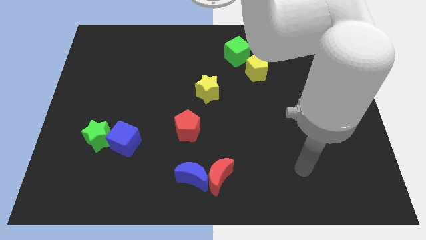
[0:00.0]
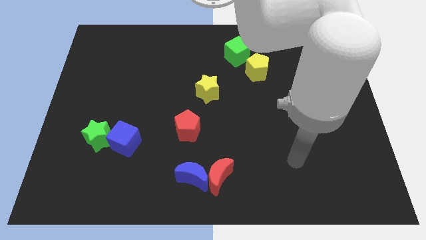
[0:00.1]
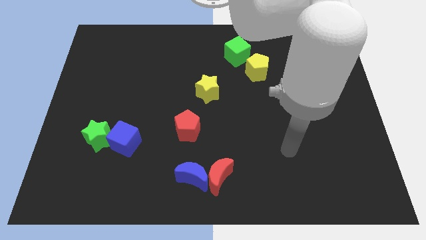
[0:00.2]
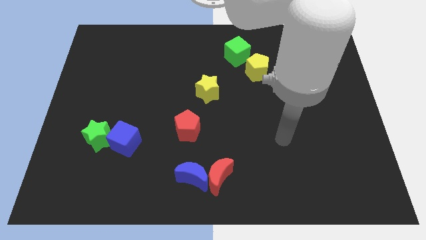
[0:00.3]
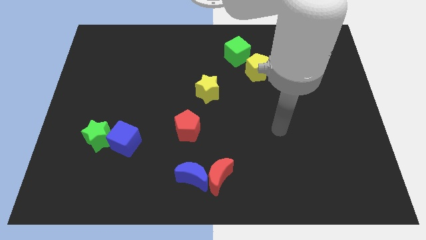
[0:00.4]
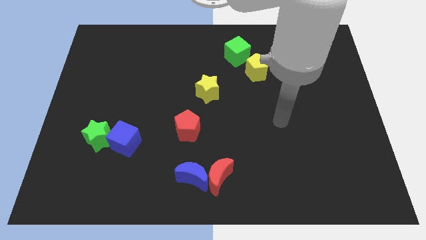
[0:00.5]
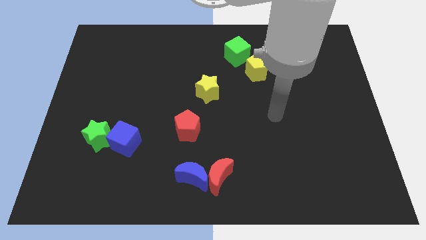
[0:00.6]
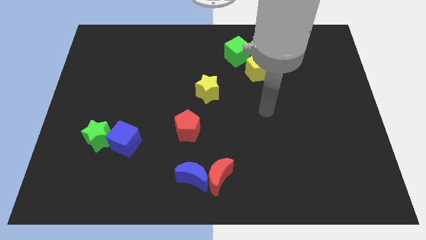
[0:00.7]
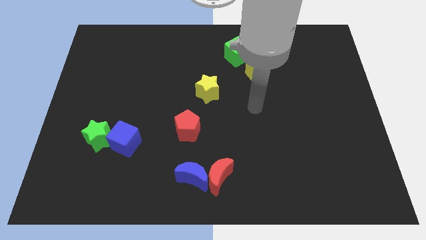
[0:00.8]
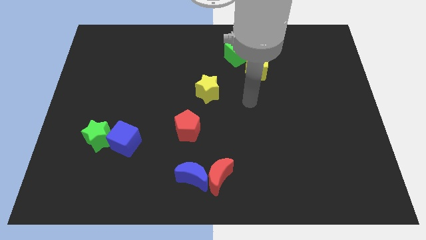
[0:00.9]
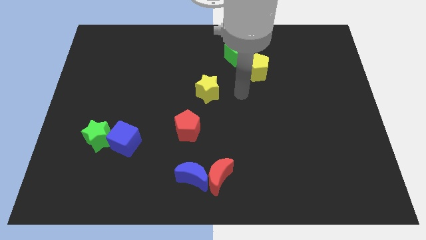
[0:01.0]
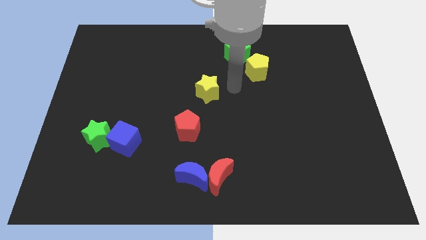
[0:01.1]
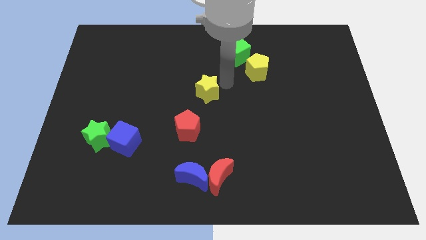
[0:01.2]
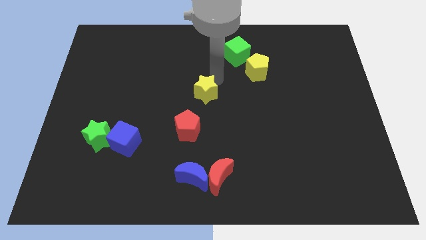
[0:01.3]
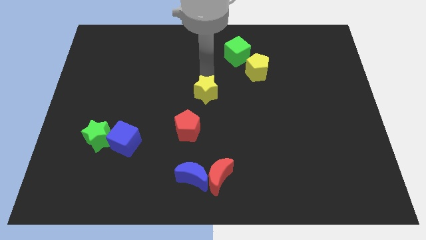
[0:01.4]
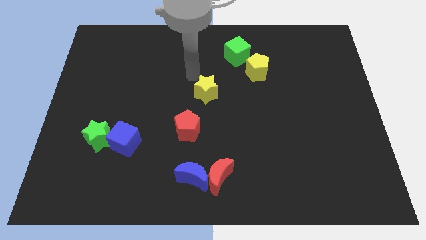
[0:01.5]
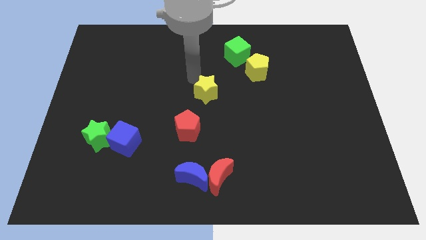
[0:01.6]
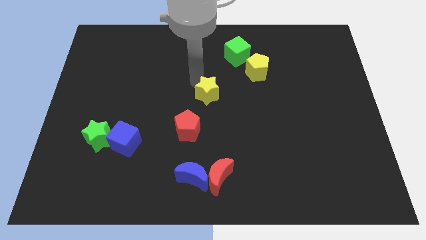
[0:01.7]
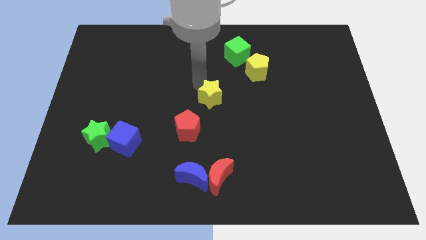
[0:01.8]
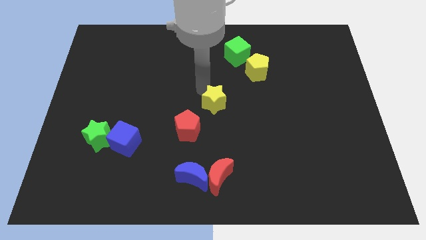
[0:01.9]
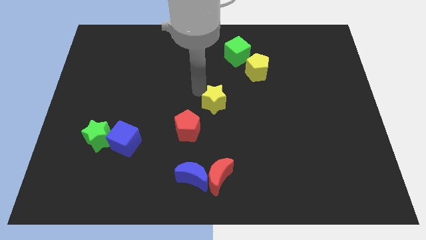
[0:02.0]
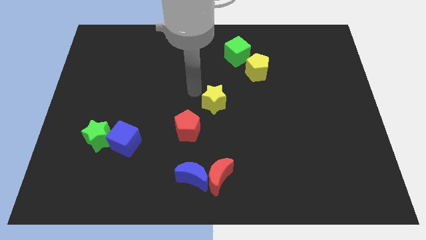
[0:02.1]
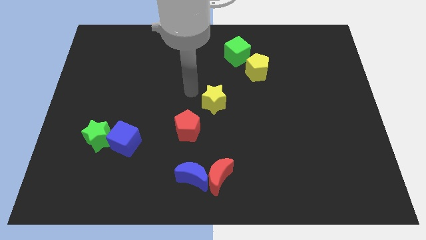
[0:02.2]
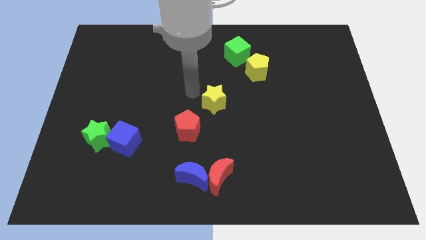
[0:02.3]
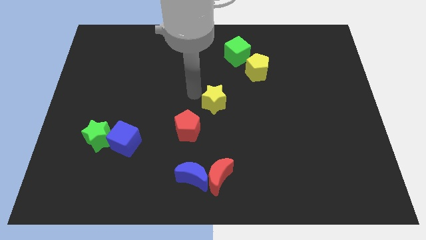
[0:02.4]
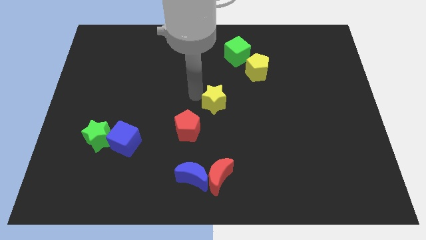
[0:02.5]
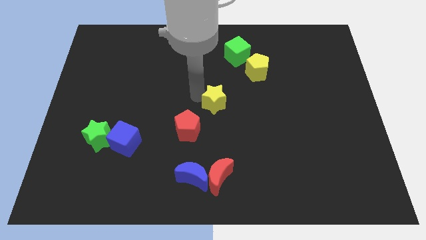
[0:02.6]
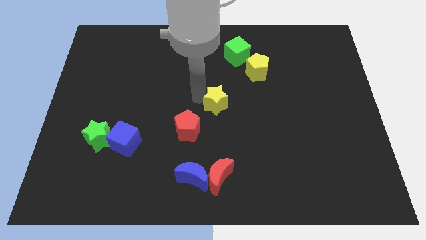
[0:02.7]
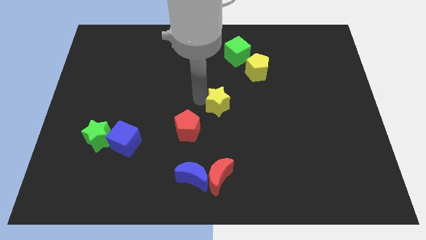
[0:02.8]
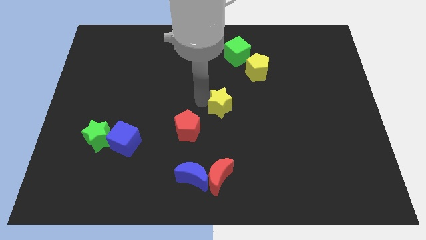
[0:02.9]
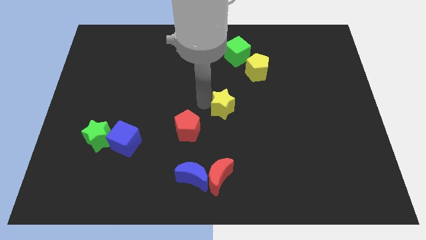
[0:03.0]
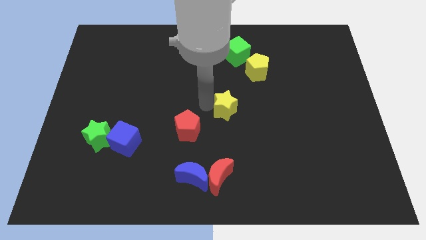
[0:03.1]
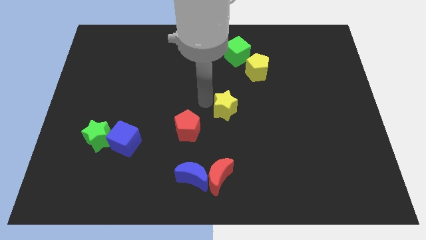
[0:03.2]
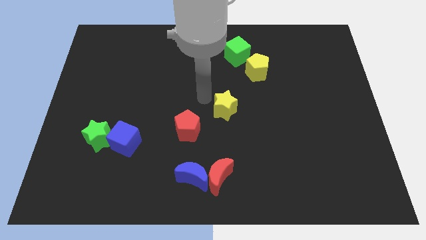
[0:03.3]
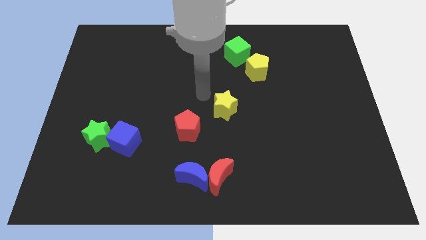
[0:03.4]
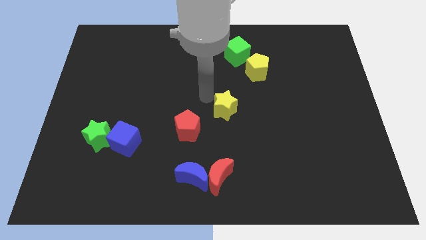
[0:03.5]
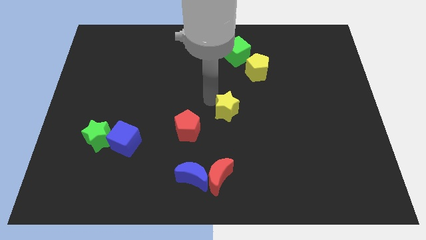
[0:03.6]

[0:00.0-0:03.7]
push the yellow star slightly down and to the right diagonally

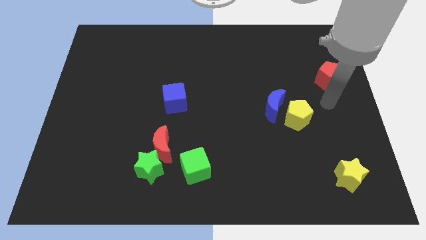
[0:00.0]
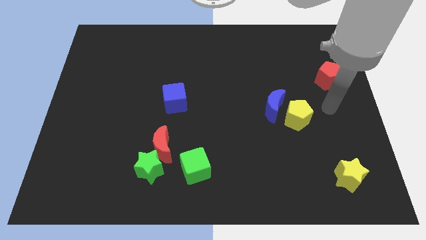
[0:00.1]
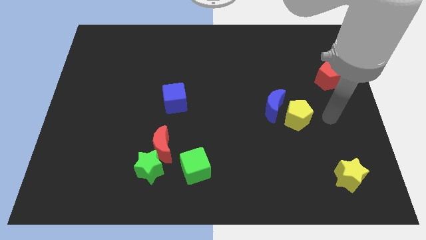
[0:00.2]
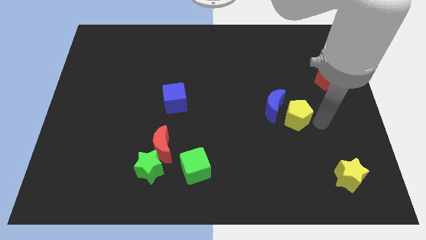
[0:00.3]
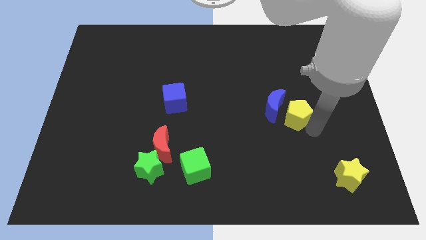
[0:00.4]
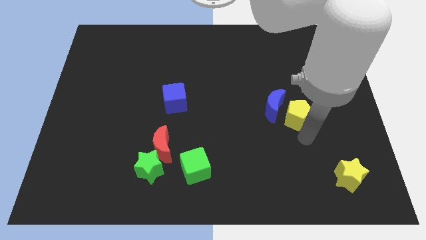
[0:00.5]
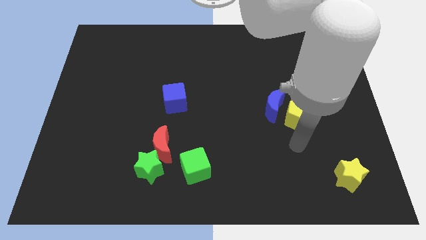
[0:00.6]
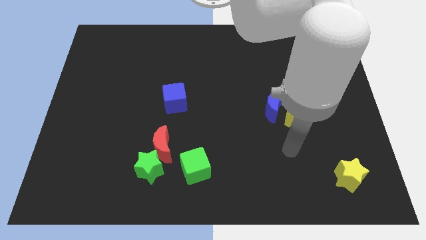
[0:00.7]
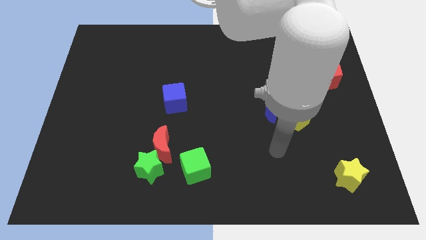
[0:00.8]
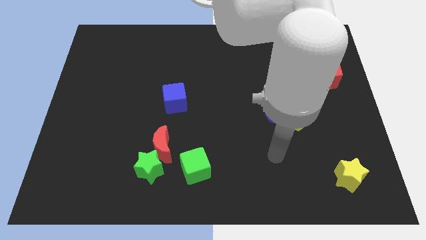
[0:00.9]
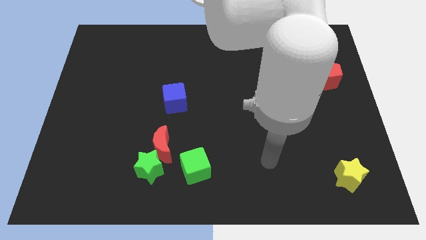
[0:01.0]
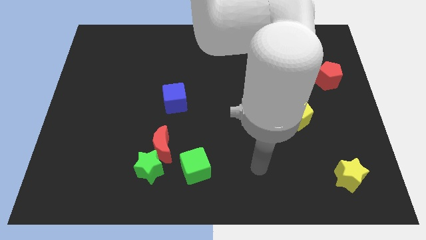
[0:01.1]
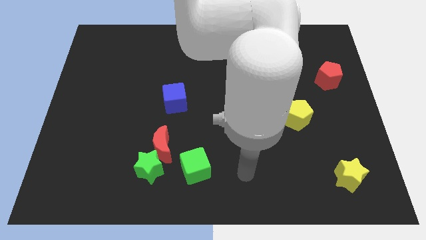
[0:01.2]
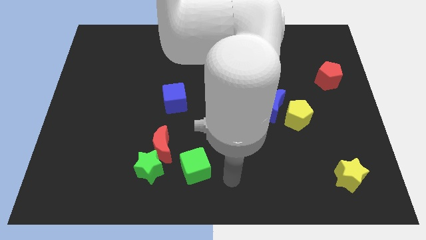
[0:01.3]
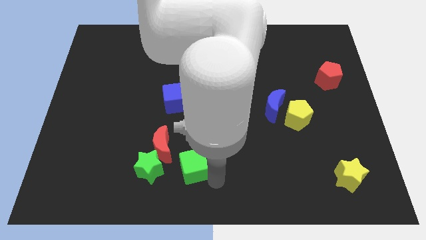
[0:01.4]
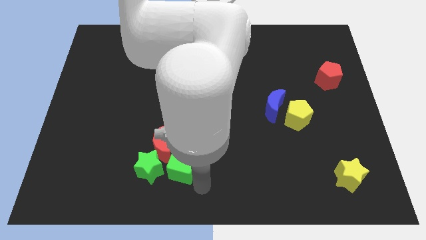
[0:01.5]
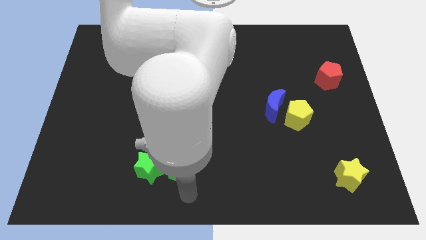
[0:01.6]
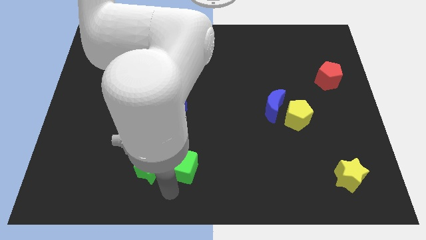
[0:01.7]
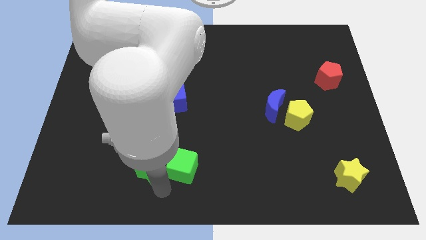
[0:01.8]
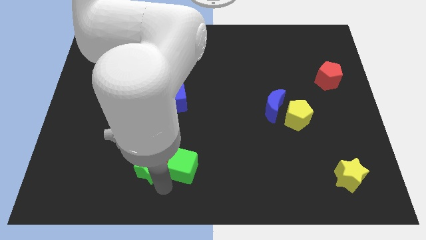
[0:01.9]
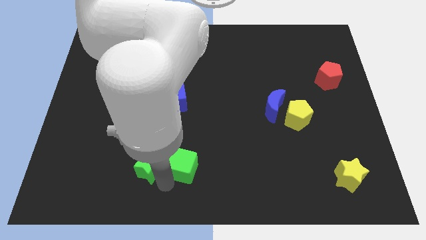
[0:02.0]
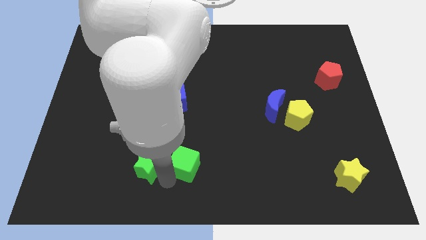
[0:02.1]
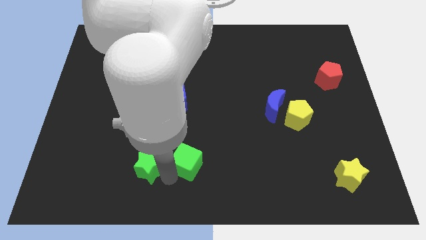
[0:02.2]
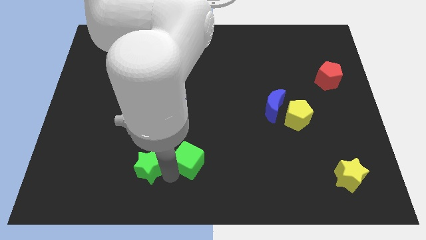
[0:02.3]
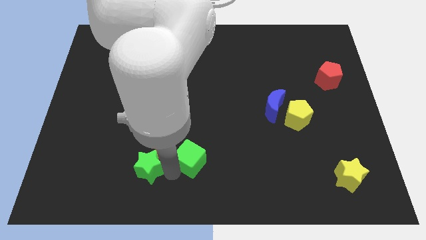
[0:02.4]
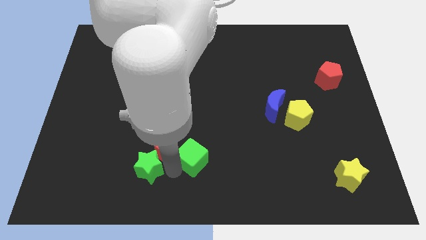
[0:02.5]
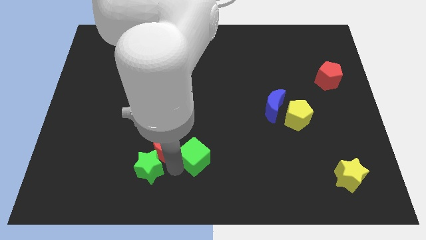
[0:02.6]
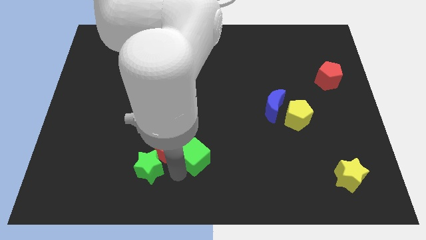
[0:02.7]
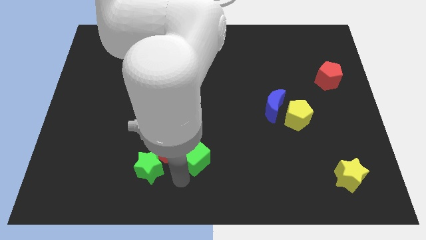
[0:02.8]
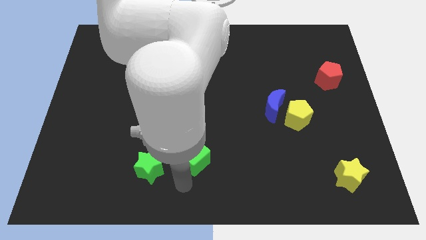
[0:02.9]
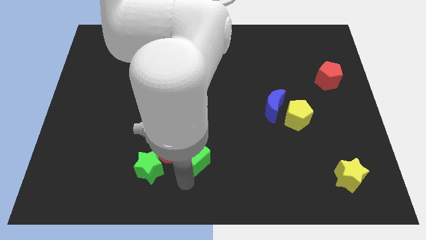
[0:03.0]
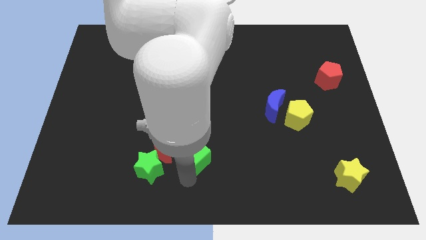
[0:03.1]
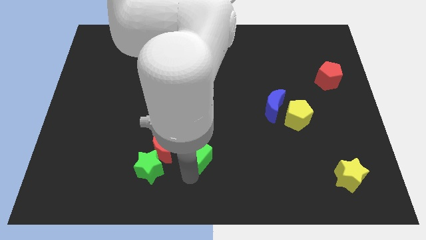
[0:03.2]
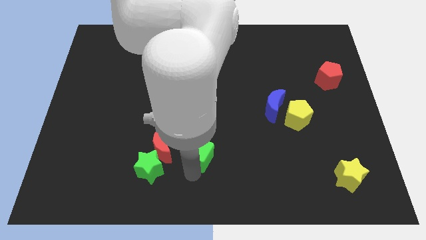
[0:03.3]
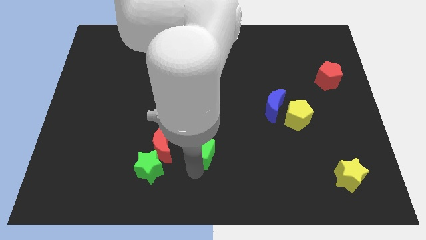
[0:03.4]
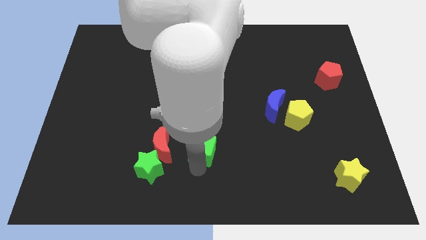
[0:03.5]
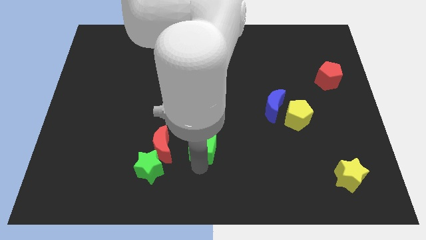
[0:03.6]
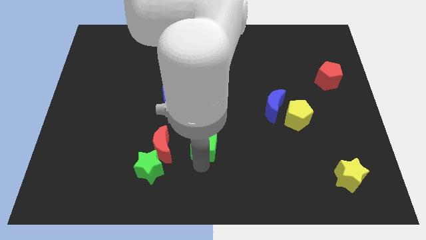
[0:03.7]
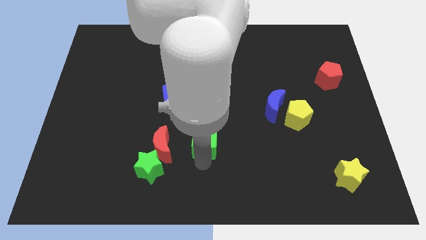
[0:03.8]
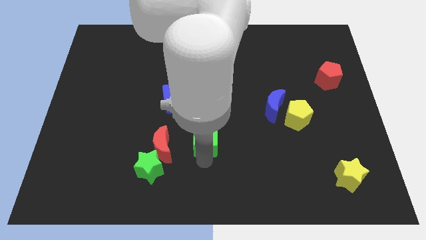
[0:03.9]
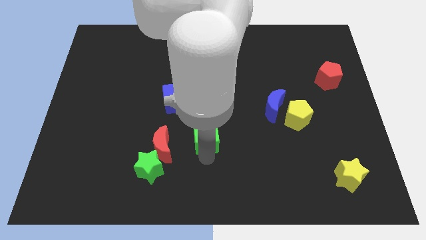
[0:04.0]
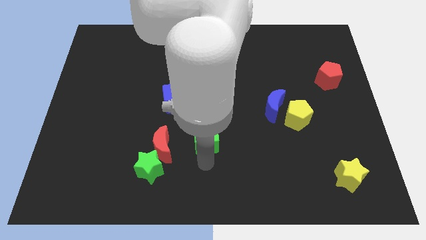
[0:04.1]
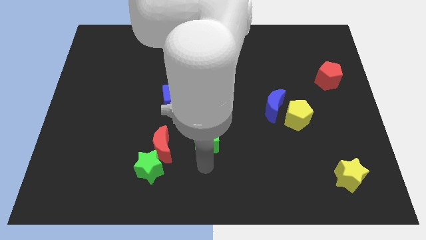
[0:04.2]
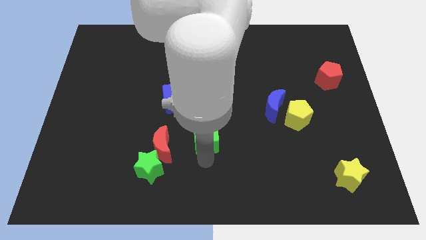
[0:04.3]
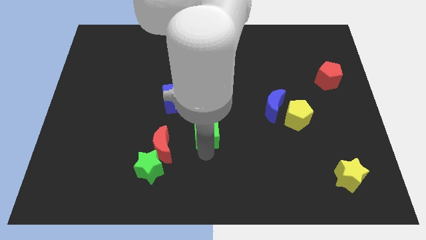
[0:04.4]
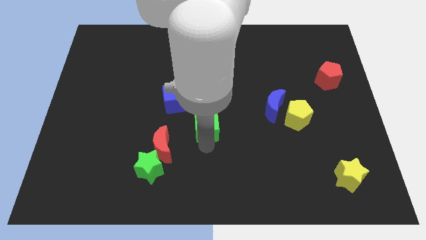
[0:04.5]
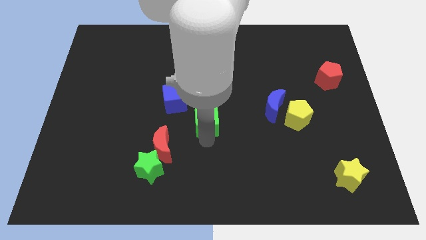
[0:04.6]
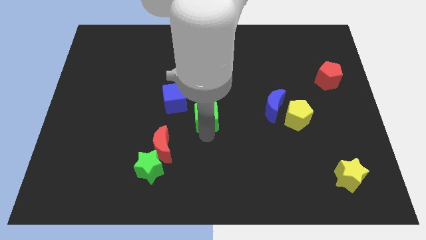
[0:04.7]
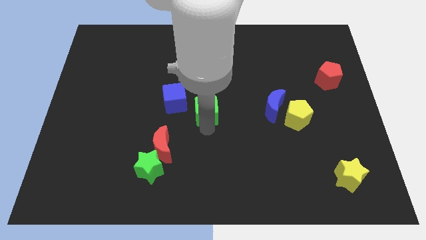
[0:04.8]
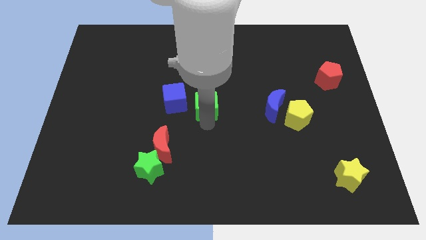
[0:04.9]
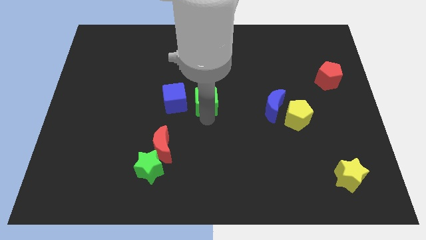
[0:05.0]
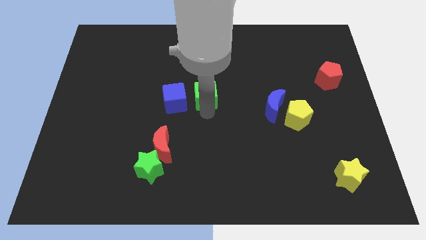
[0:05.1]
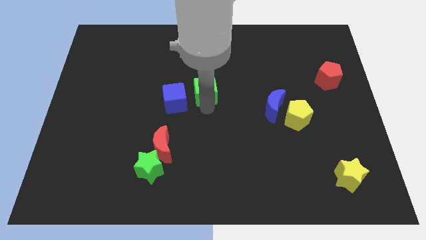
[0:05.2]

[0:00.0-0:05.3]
push the green cube up
